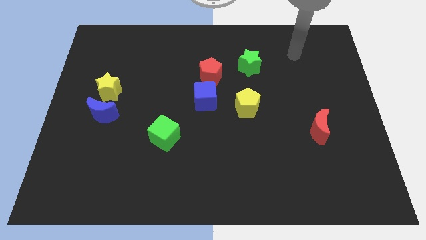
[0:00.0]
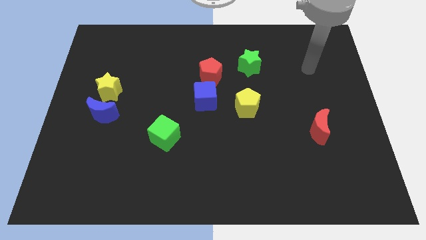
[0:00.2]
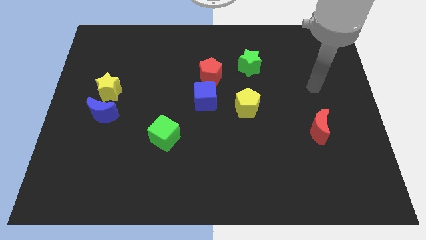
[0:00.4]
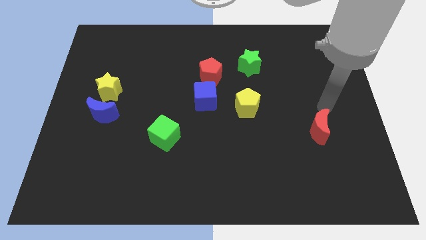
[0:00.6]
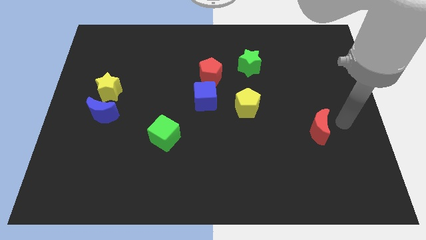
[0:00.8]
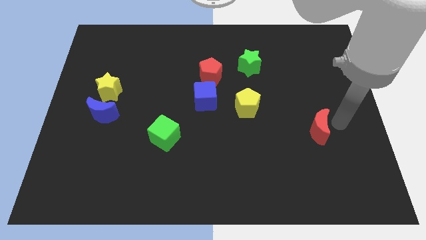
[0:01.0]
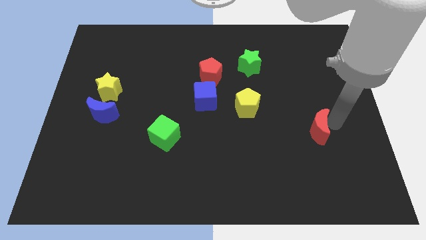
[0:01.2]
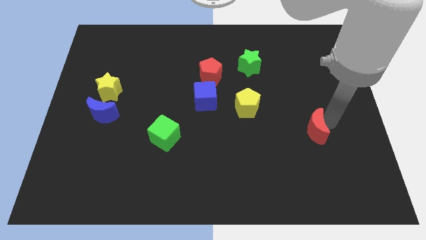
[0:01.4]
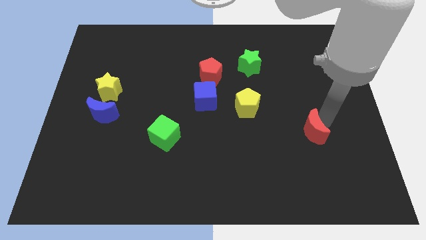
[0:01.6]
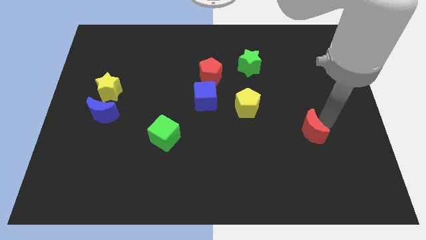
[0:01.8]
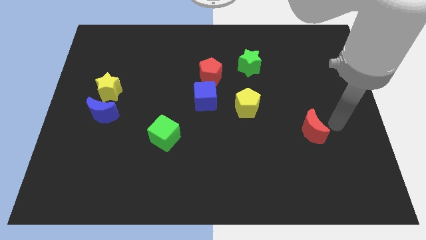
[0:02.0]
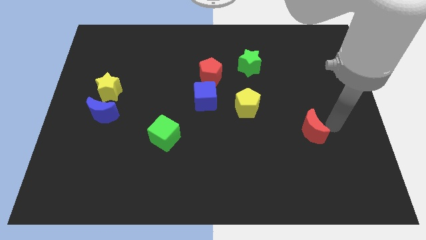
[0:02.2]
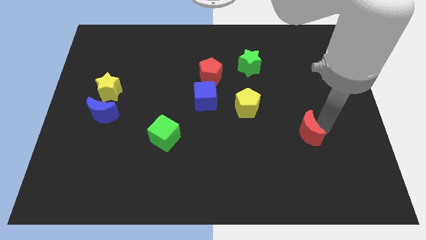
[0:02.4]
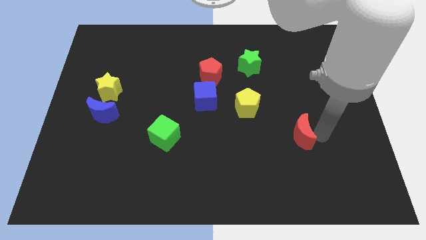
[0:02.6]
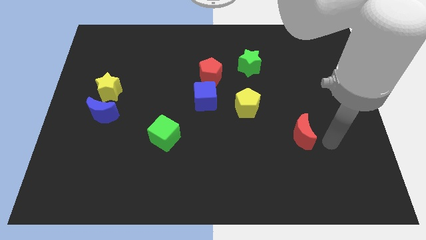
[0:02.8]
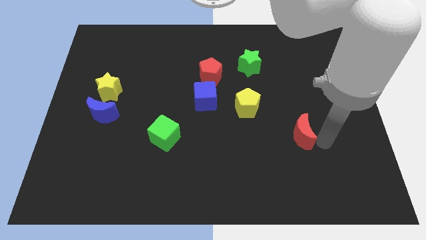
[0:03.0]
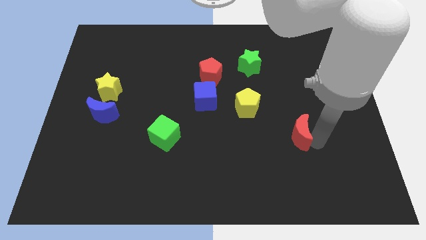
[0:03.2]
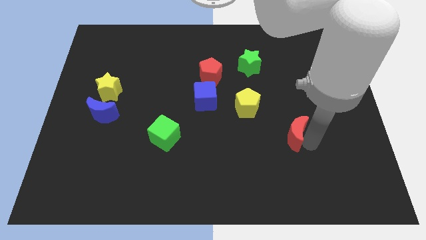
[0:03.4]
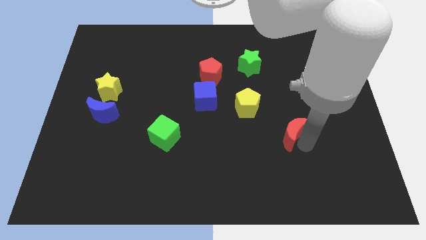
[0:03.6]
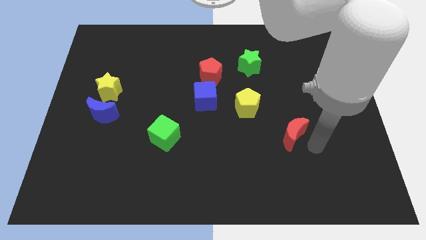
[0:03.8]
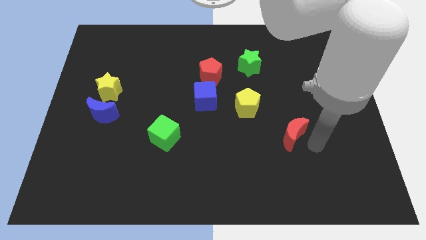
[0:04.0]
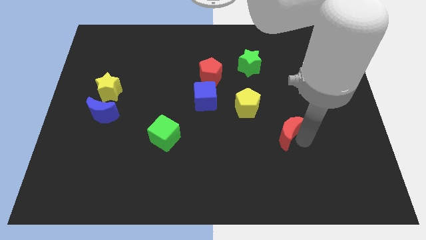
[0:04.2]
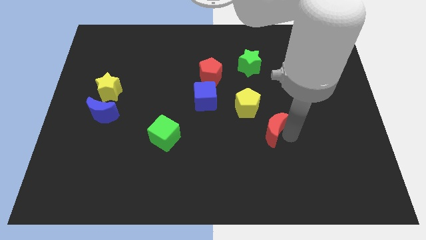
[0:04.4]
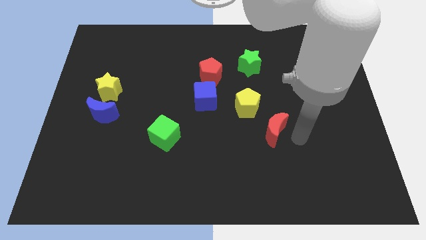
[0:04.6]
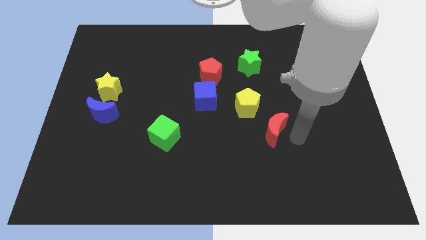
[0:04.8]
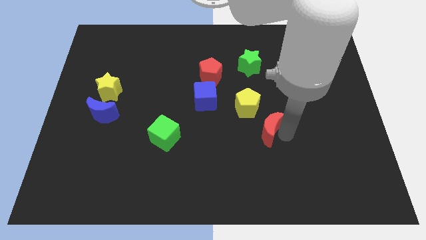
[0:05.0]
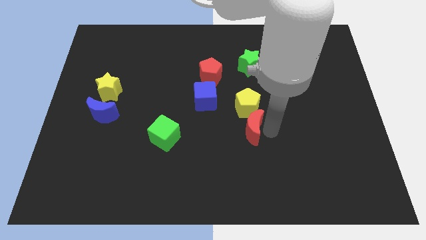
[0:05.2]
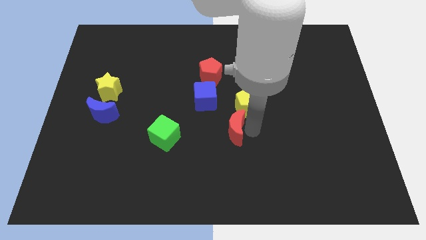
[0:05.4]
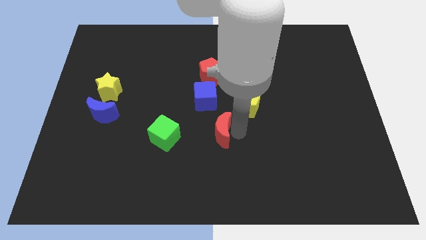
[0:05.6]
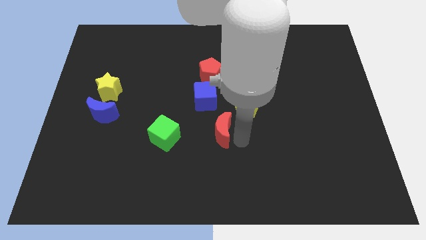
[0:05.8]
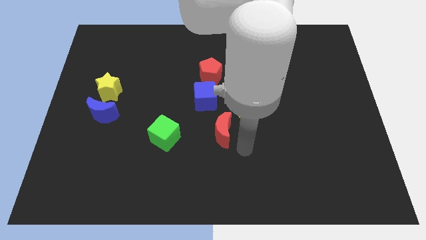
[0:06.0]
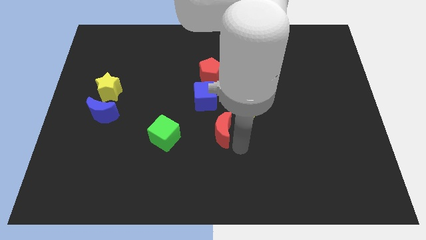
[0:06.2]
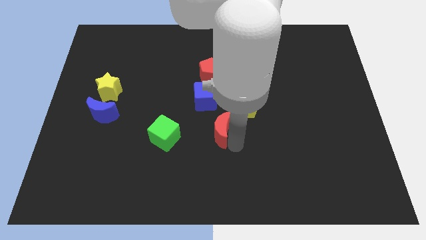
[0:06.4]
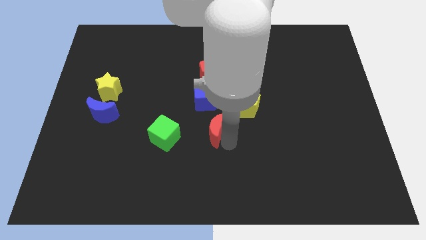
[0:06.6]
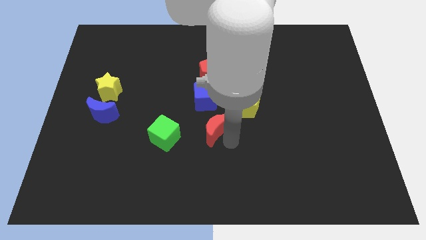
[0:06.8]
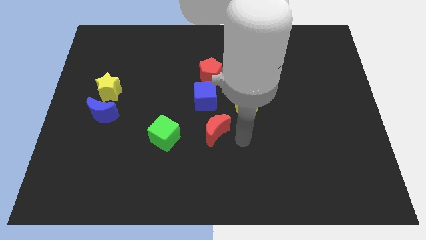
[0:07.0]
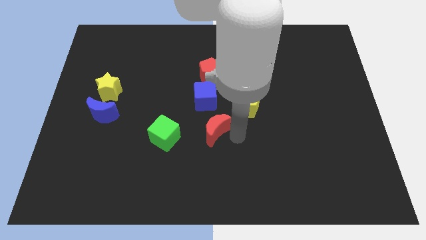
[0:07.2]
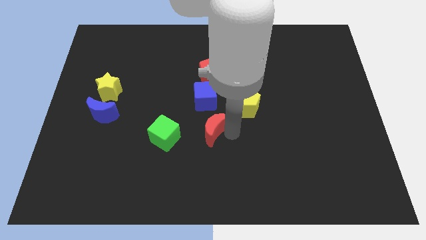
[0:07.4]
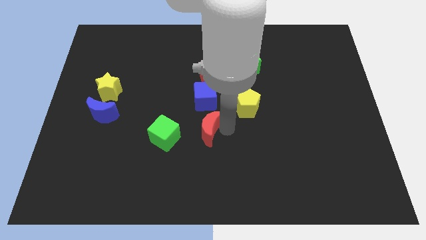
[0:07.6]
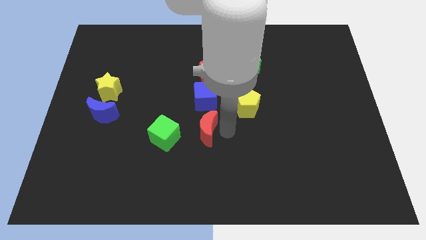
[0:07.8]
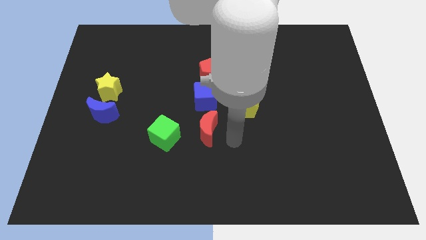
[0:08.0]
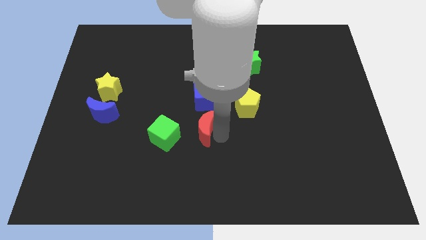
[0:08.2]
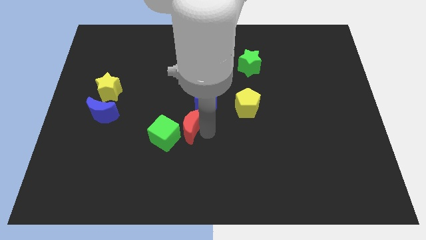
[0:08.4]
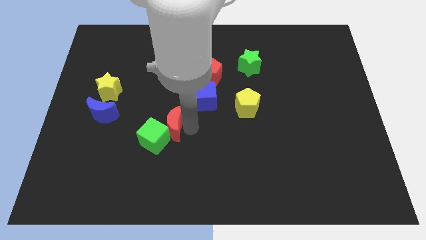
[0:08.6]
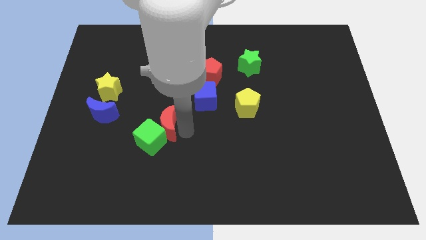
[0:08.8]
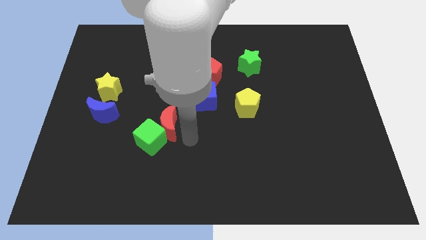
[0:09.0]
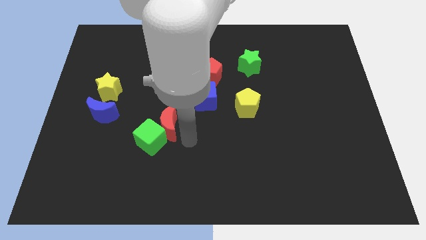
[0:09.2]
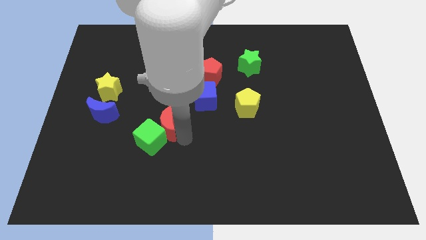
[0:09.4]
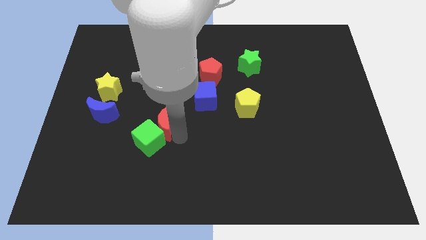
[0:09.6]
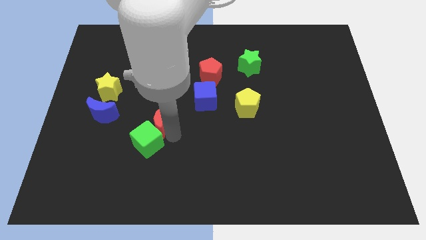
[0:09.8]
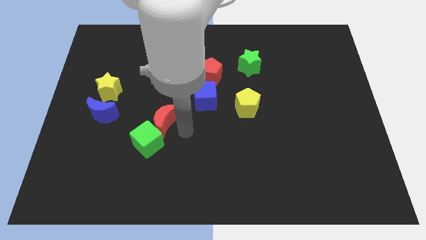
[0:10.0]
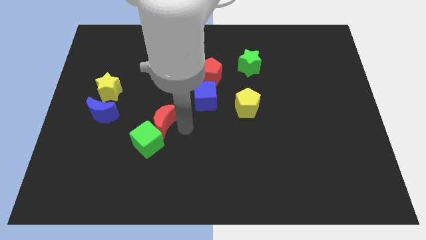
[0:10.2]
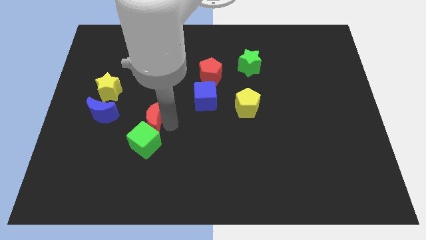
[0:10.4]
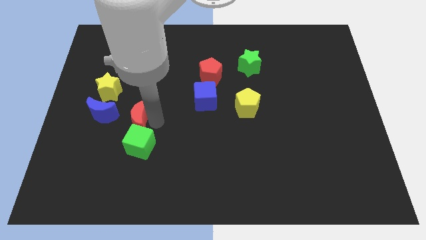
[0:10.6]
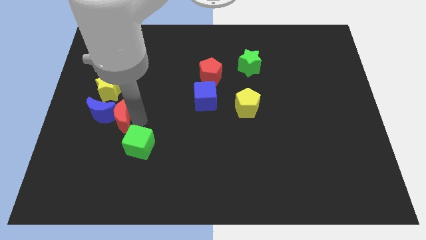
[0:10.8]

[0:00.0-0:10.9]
push the red moon to the blue moon

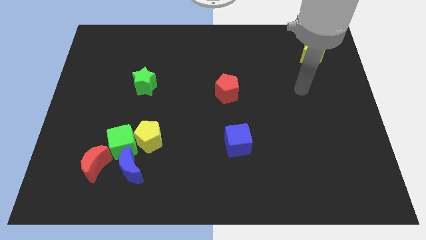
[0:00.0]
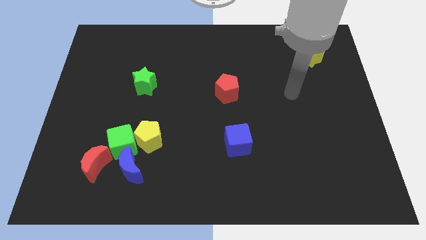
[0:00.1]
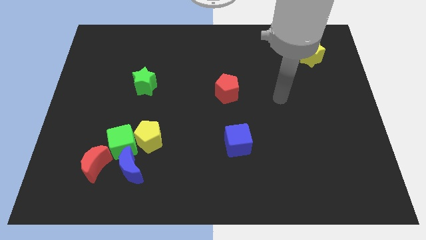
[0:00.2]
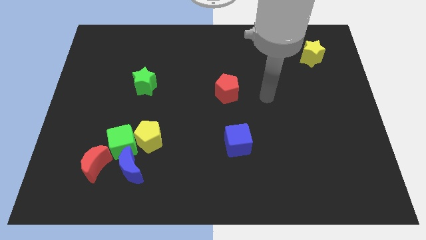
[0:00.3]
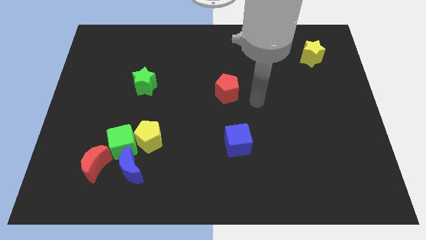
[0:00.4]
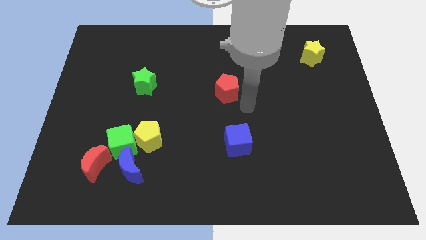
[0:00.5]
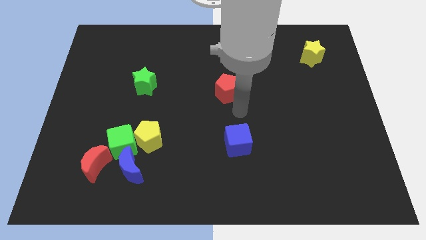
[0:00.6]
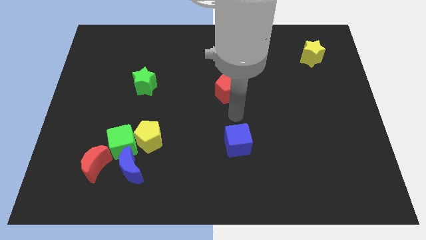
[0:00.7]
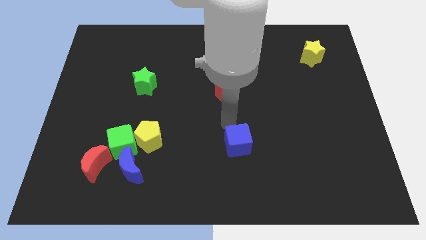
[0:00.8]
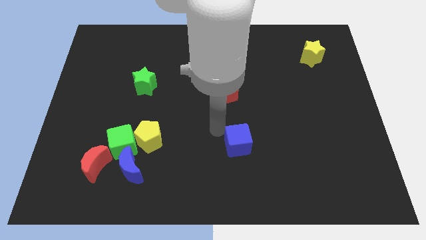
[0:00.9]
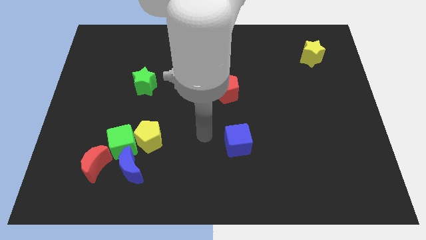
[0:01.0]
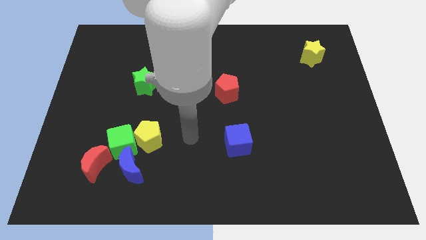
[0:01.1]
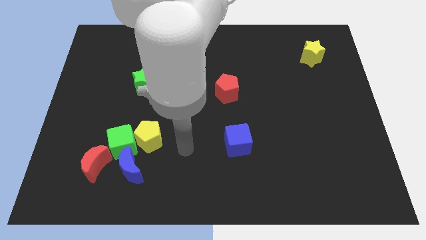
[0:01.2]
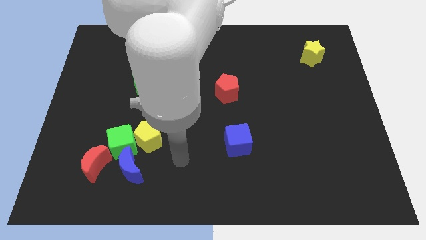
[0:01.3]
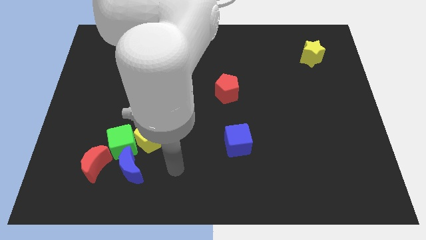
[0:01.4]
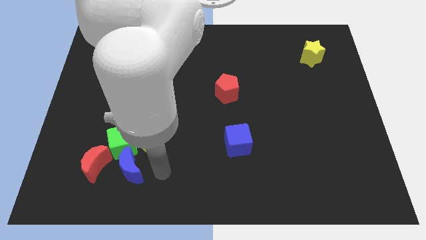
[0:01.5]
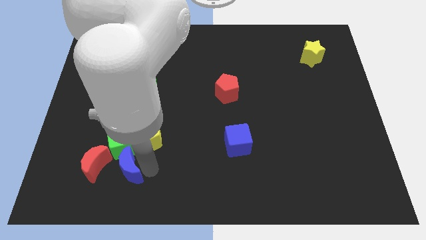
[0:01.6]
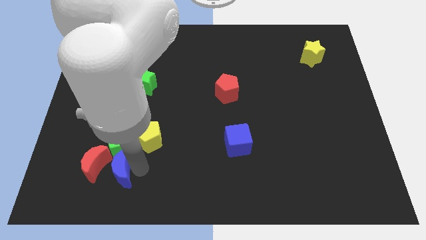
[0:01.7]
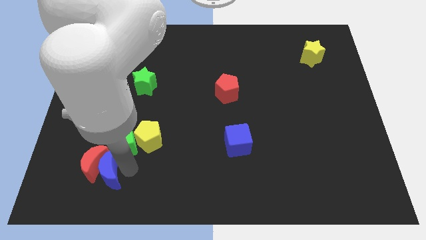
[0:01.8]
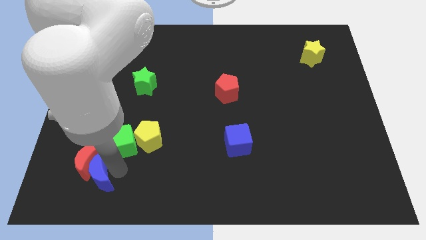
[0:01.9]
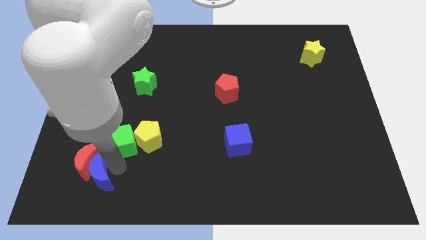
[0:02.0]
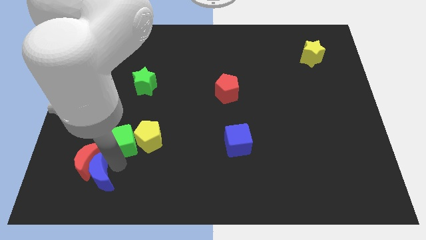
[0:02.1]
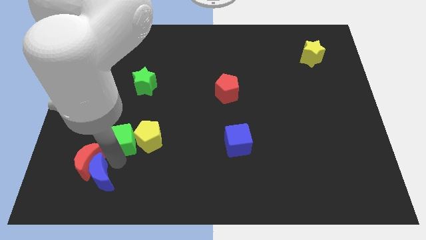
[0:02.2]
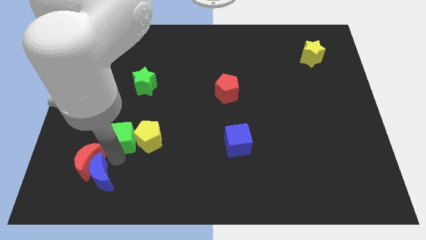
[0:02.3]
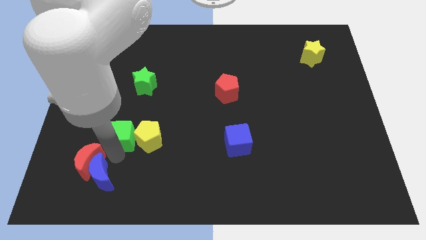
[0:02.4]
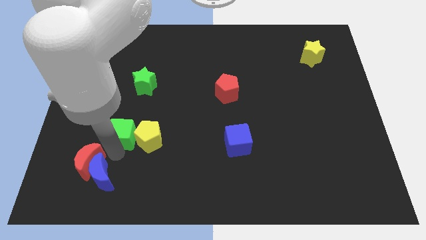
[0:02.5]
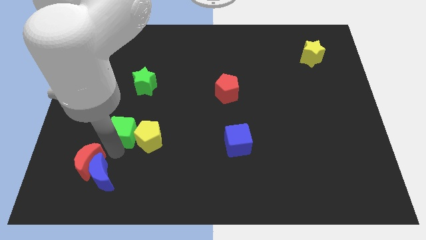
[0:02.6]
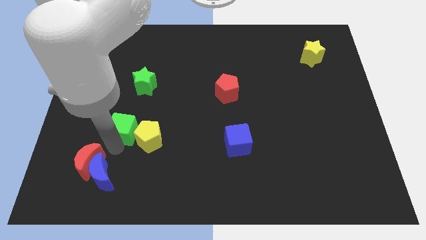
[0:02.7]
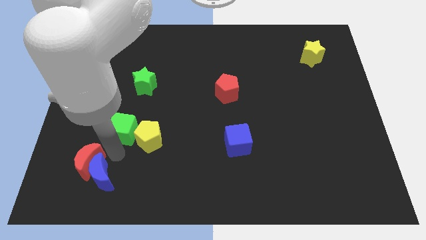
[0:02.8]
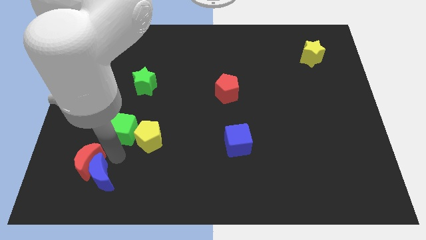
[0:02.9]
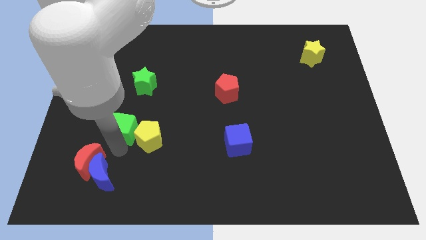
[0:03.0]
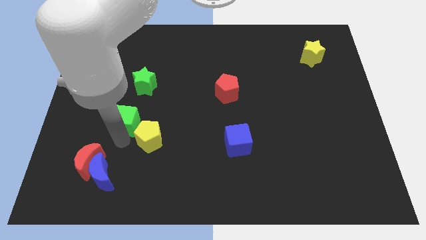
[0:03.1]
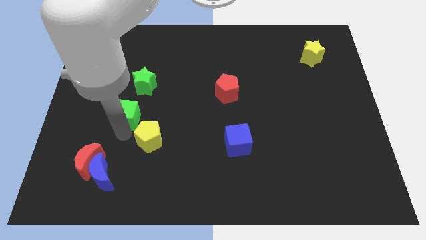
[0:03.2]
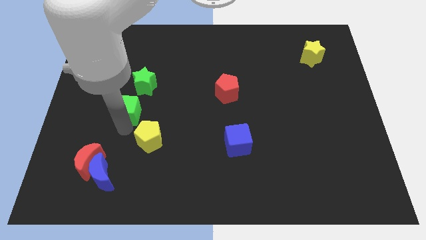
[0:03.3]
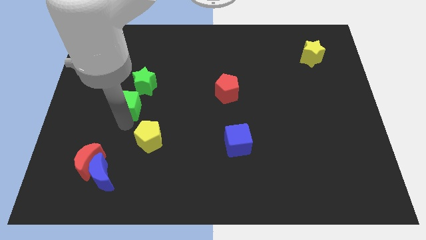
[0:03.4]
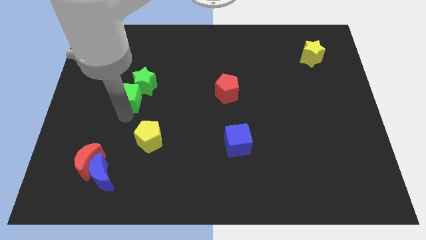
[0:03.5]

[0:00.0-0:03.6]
put the green cube close to the green star
